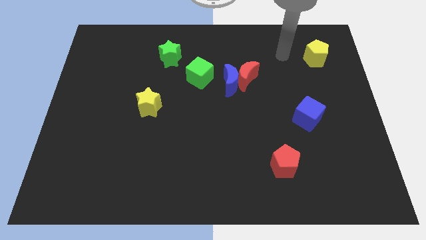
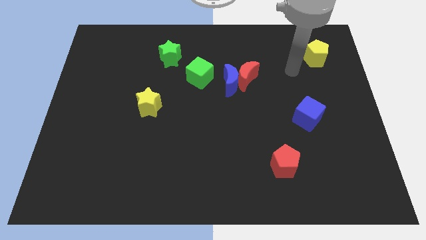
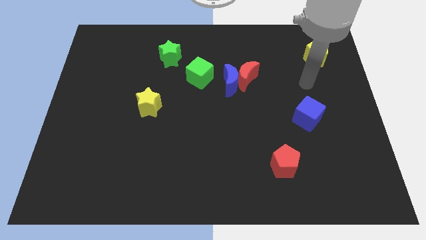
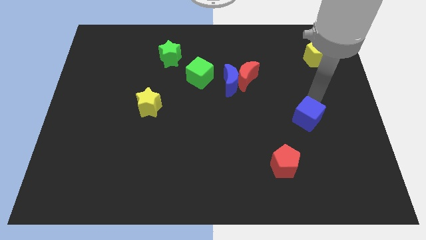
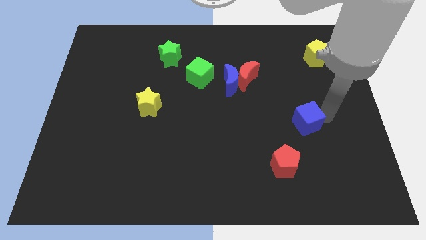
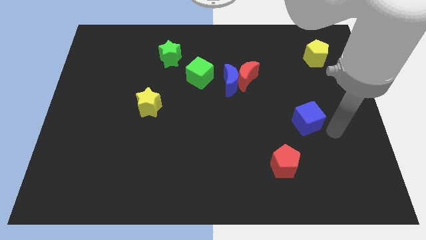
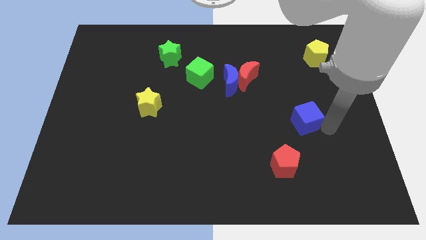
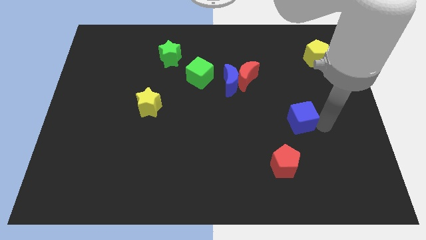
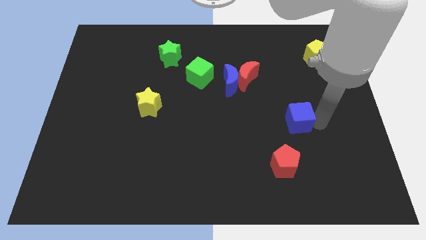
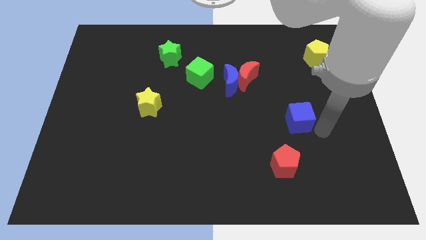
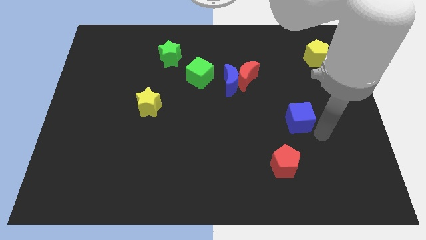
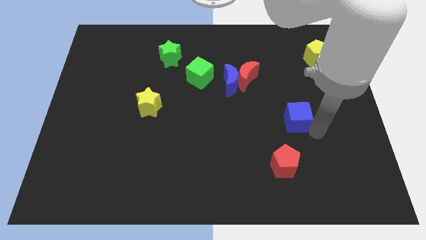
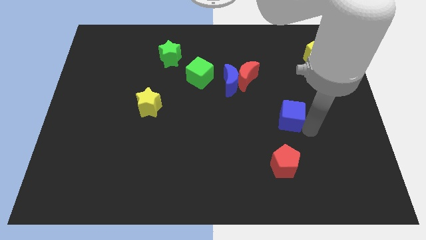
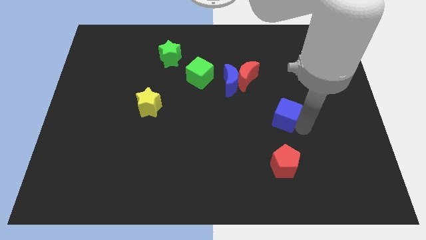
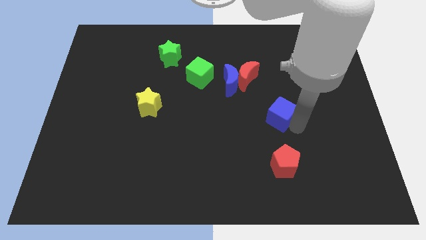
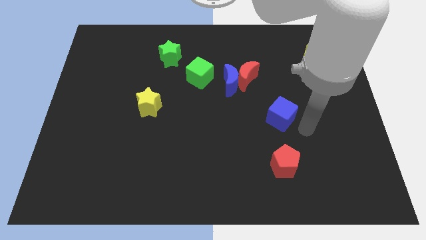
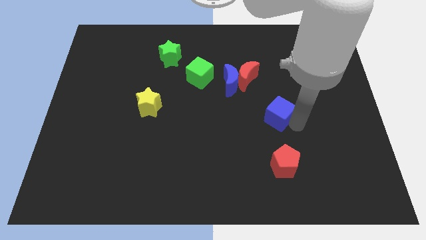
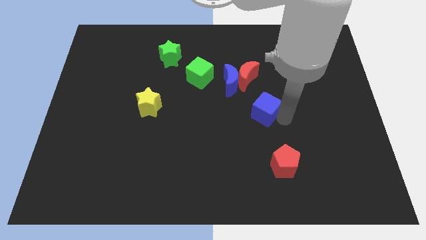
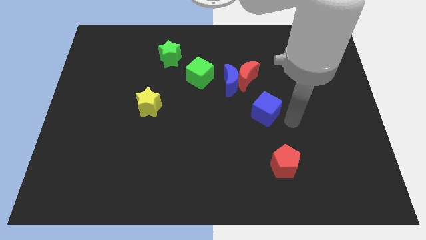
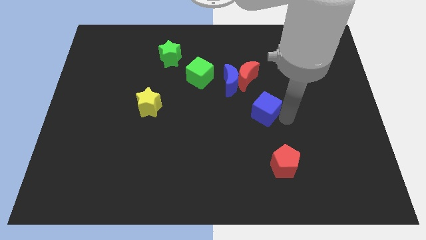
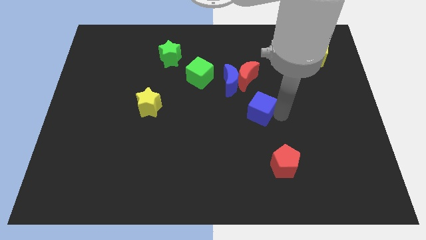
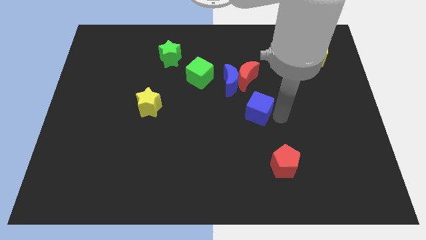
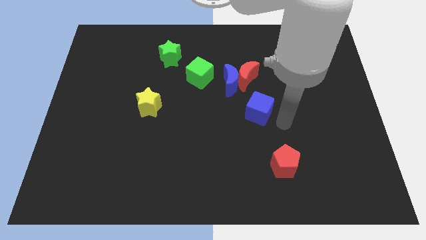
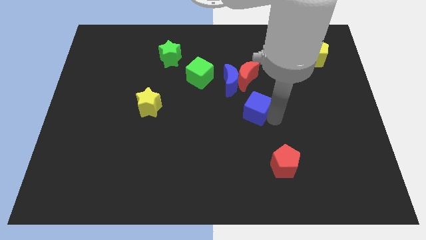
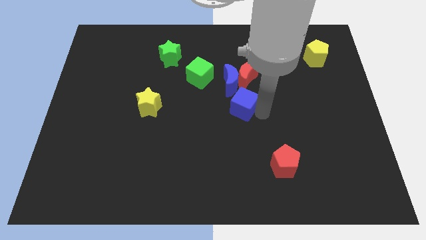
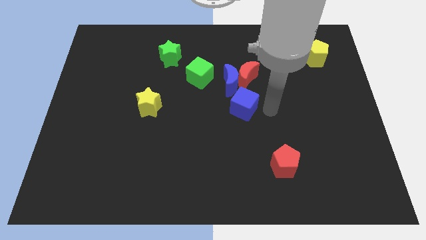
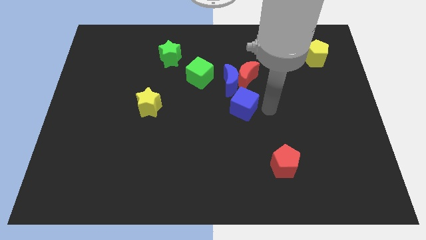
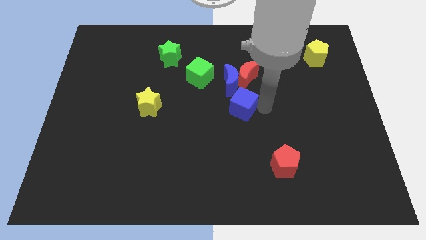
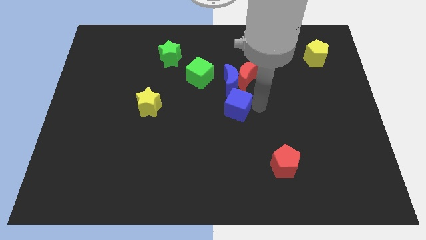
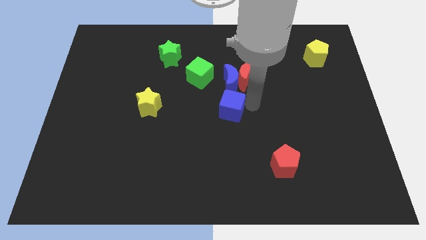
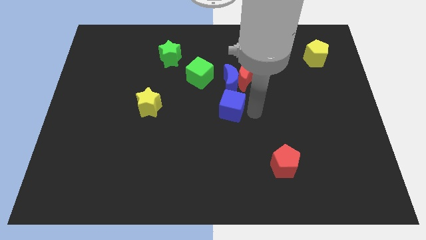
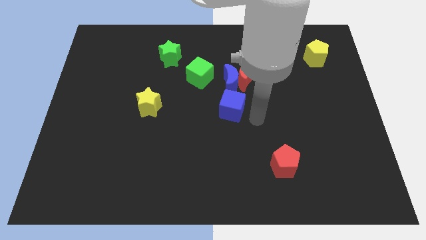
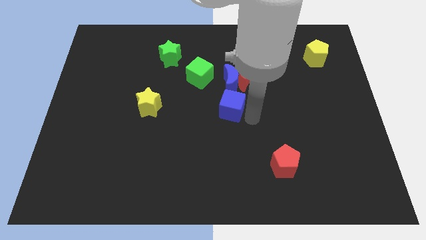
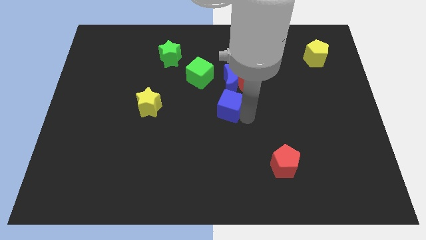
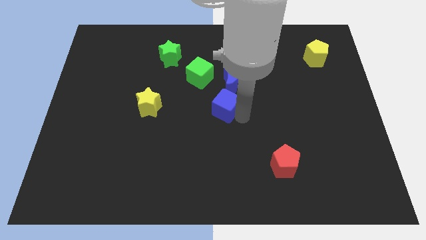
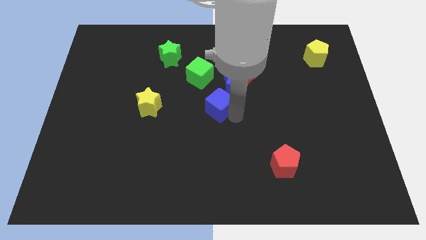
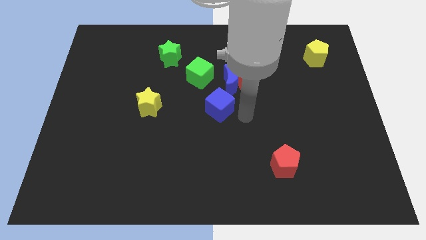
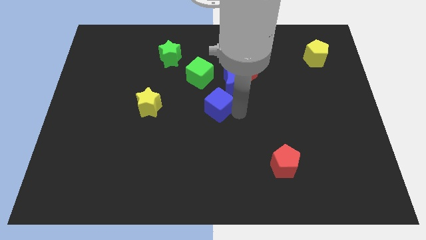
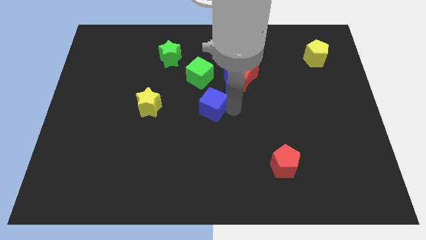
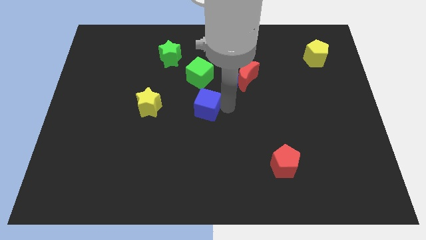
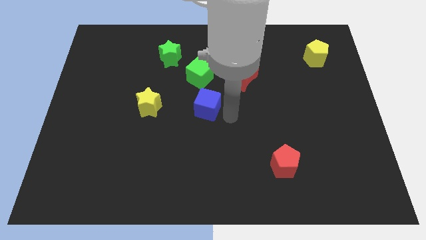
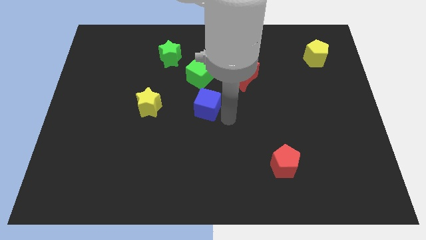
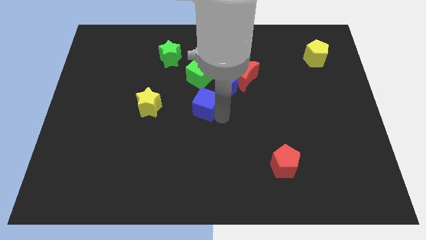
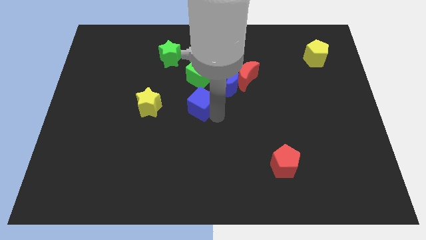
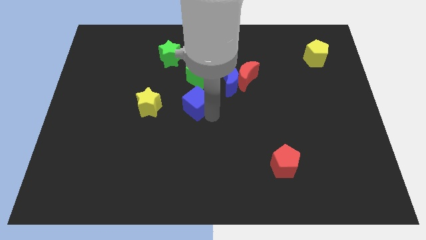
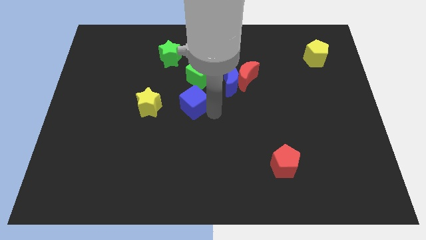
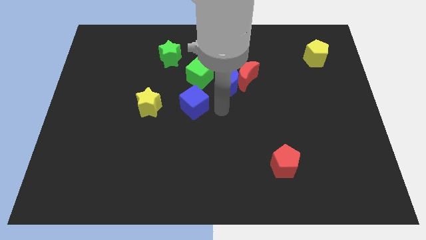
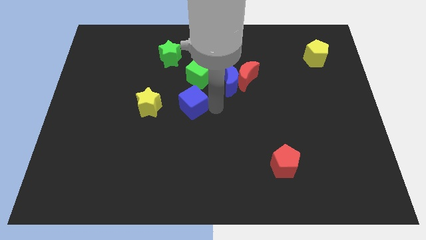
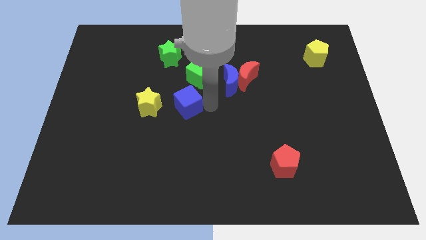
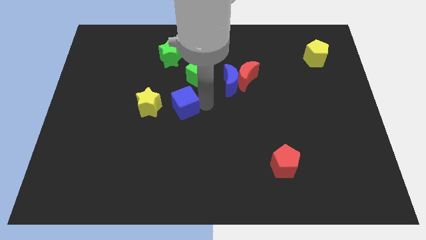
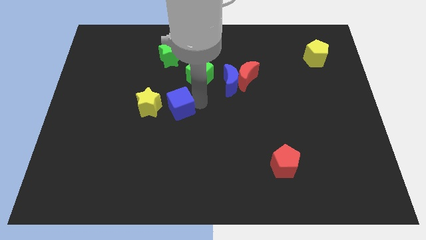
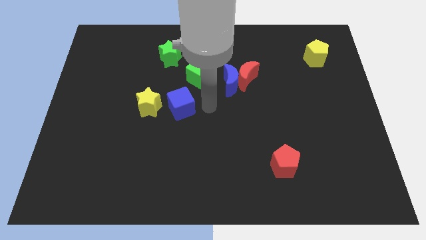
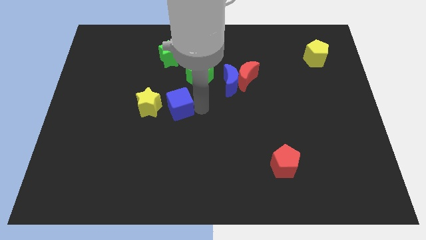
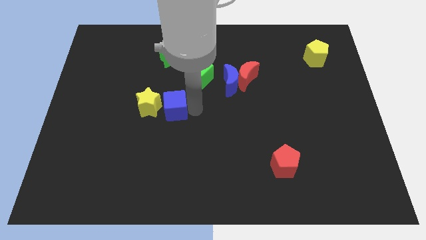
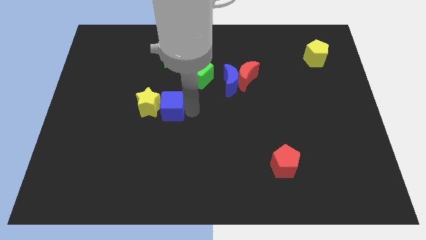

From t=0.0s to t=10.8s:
push the blue cube next to the yellow star

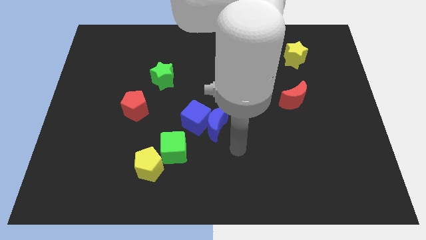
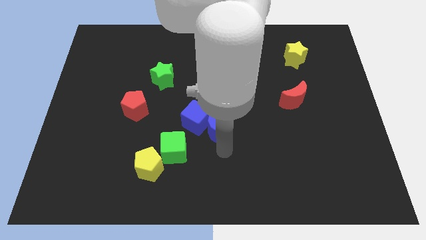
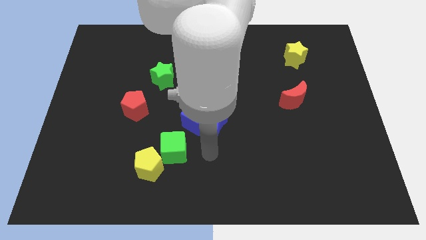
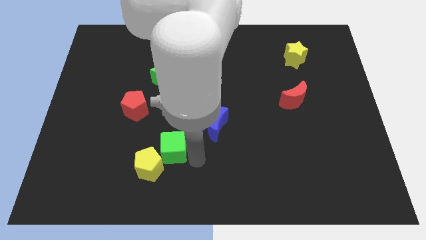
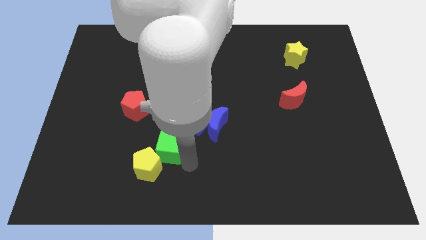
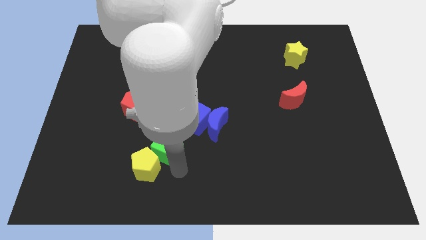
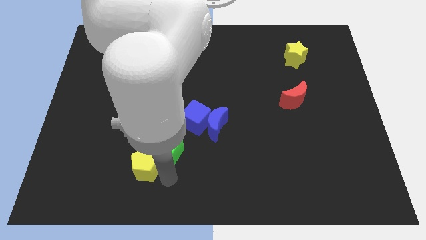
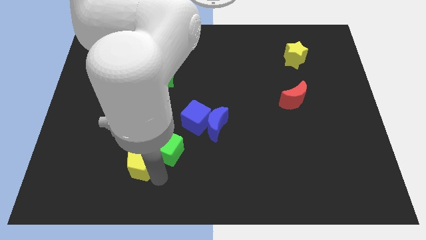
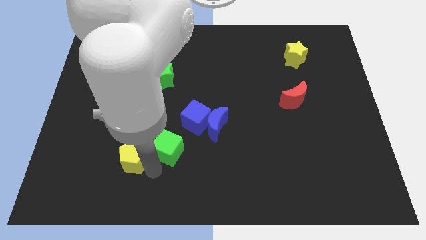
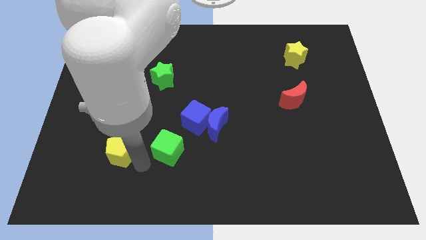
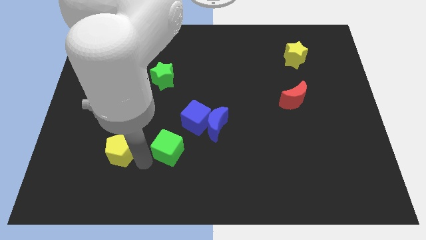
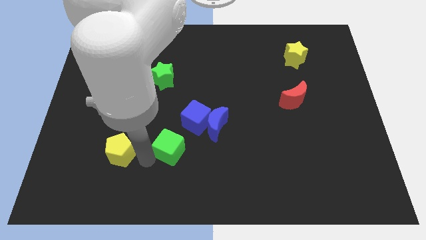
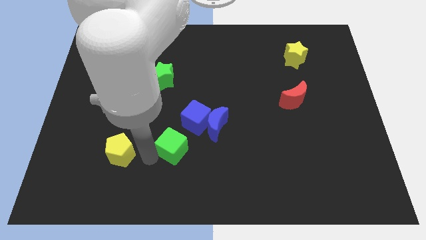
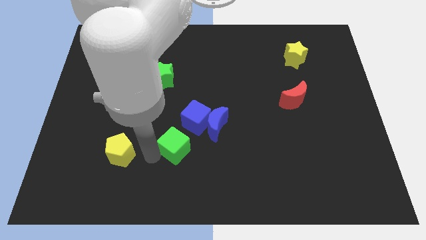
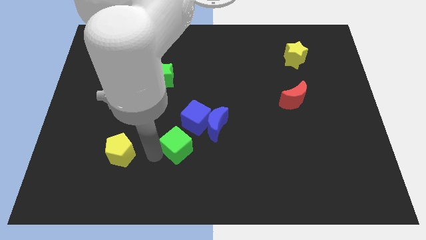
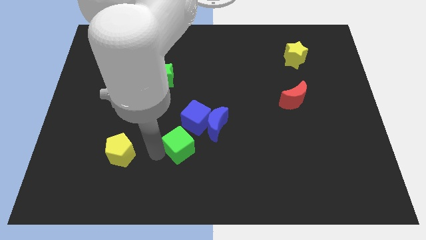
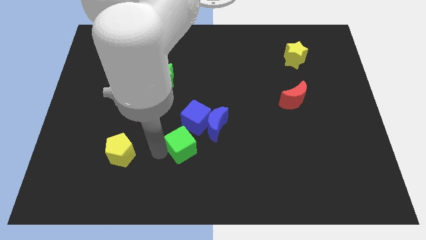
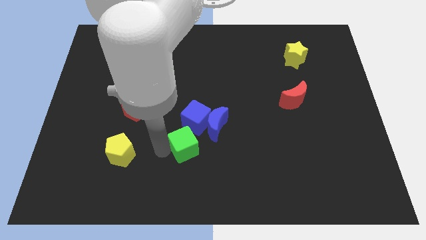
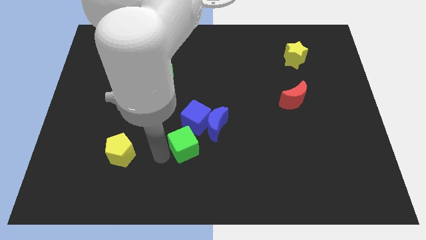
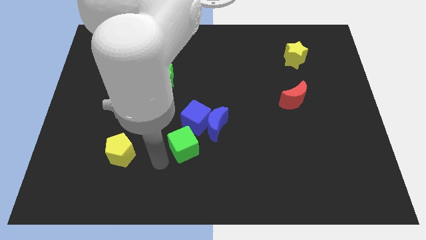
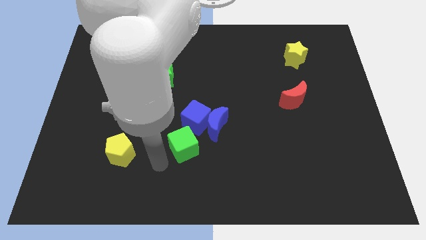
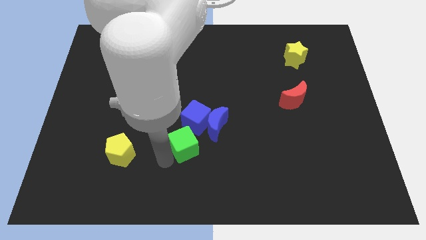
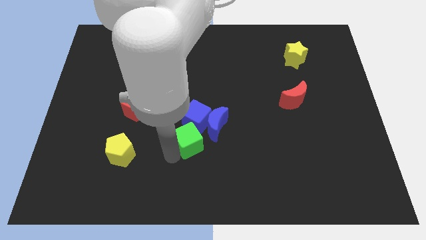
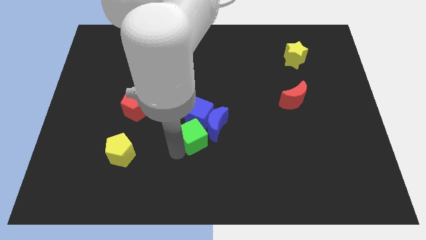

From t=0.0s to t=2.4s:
move the green cube towards the blue moon
